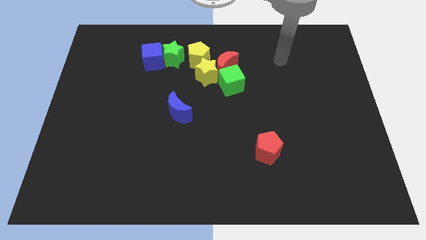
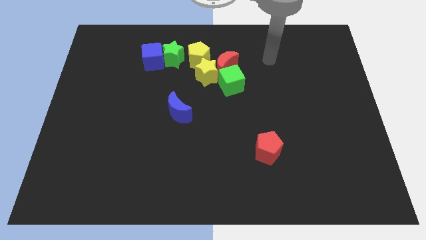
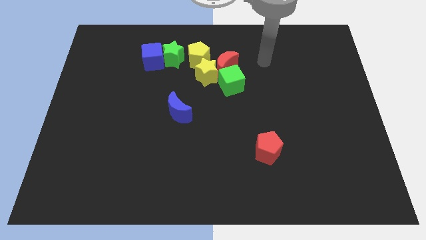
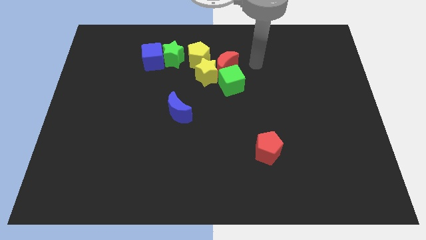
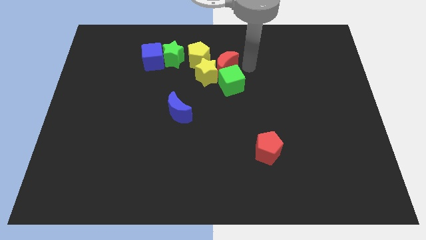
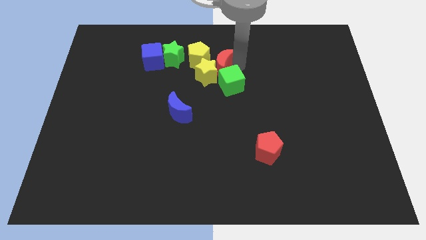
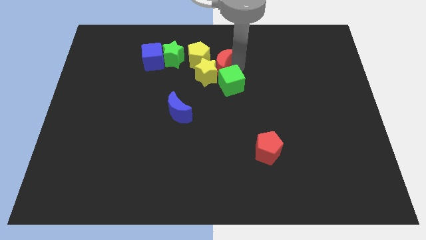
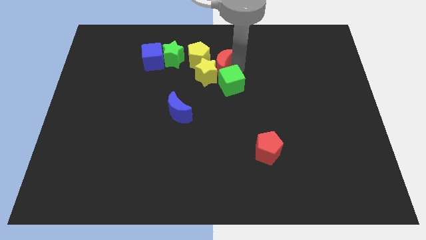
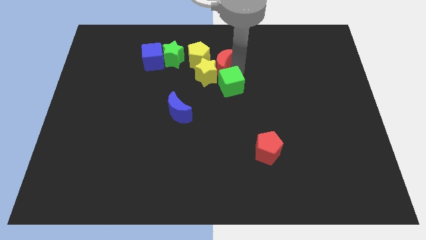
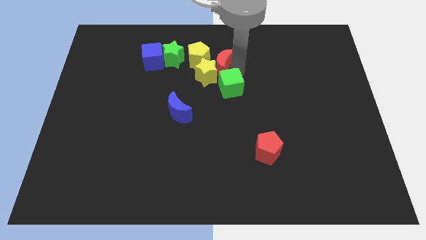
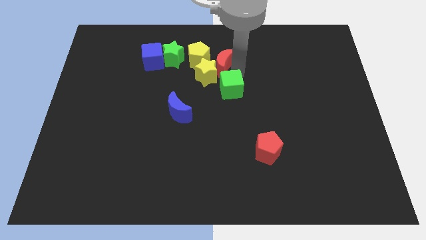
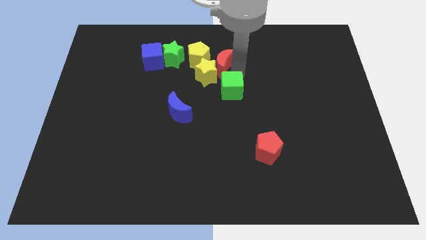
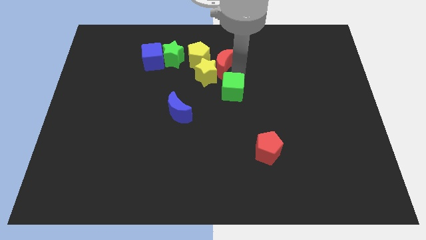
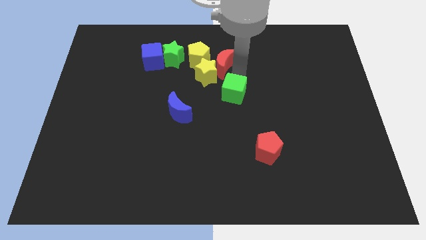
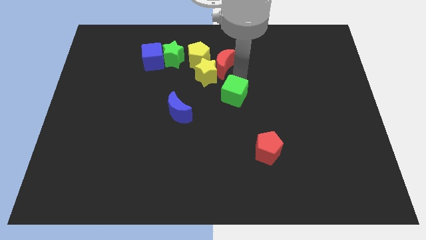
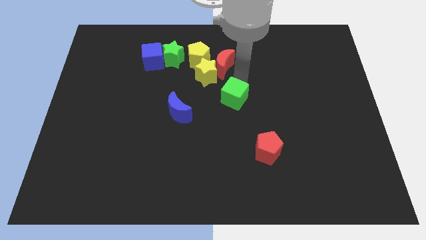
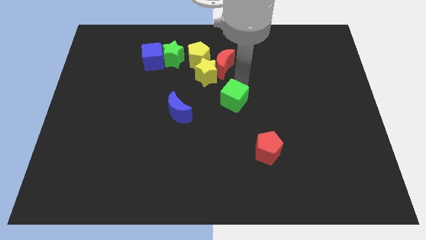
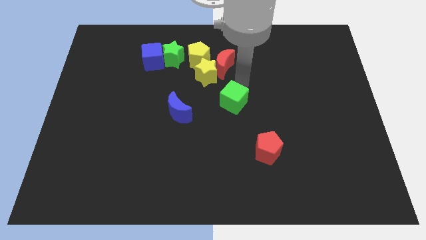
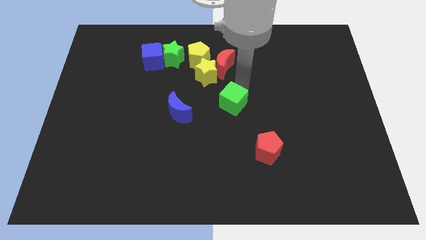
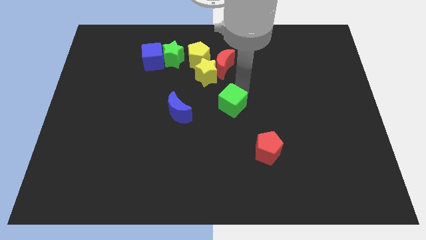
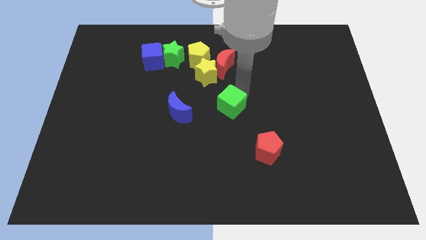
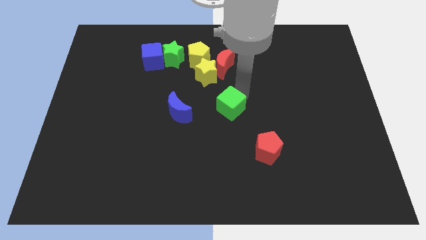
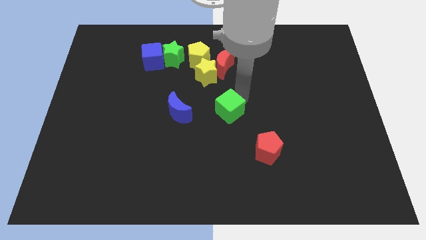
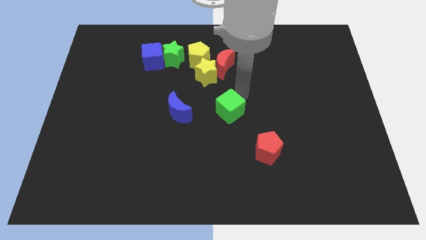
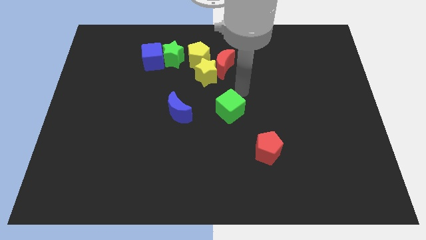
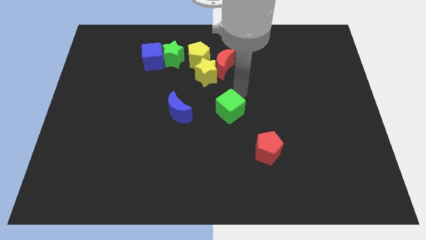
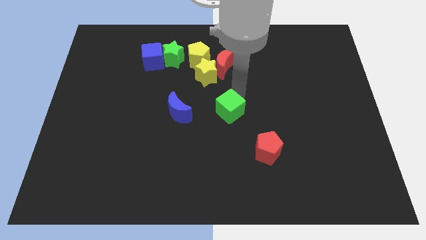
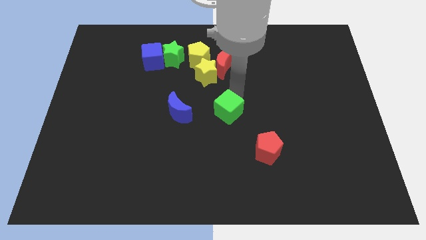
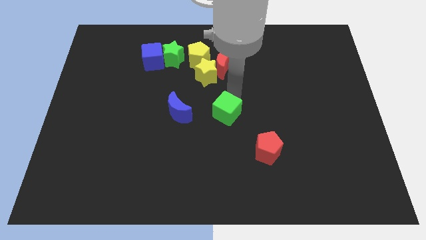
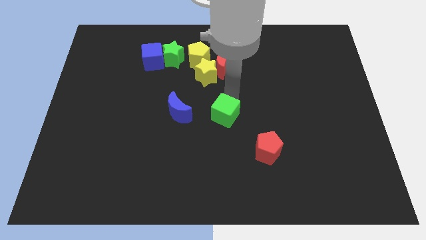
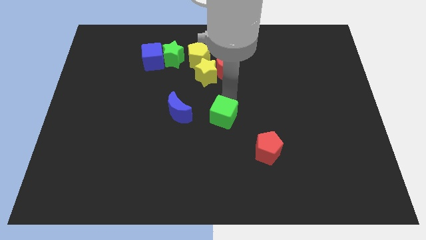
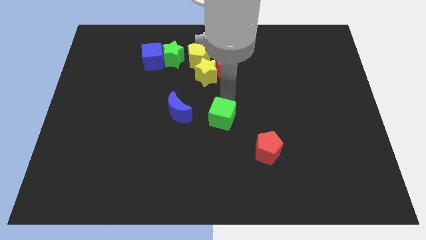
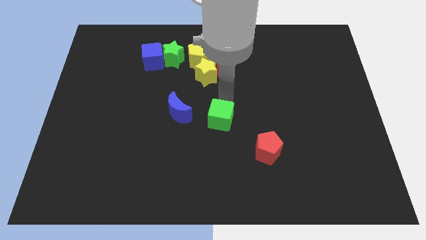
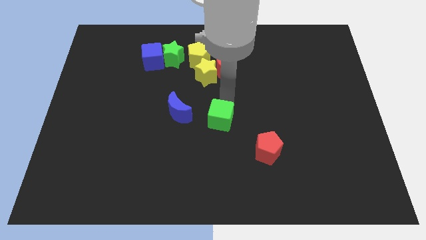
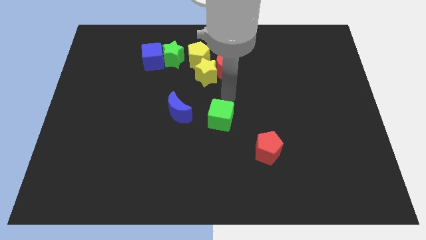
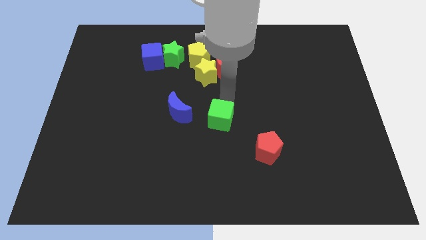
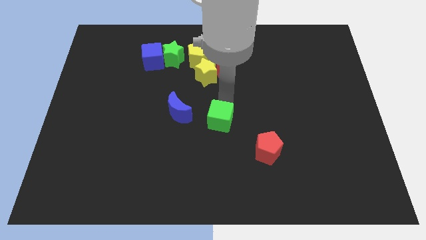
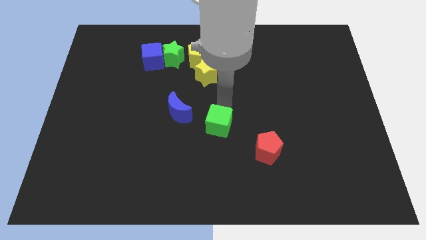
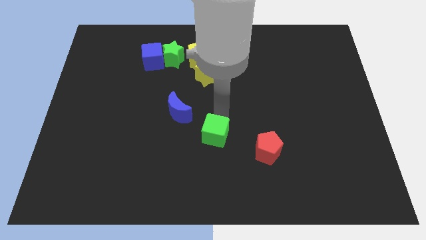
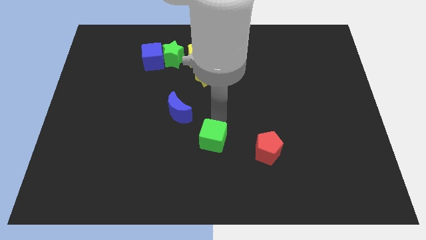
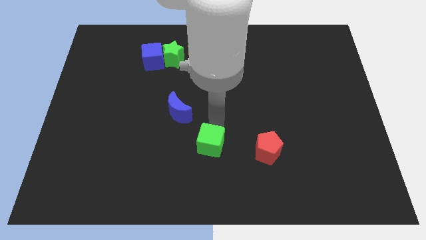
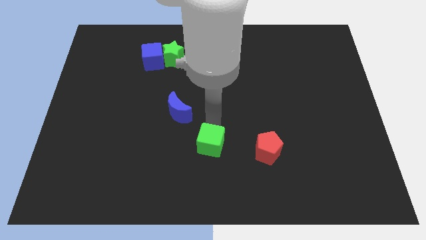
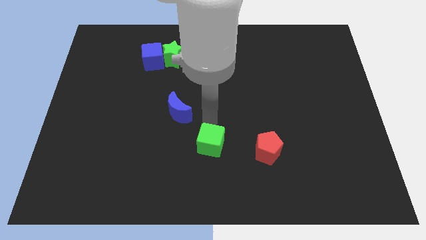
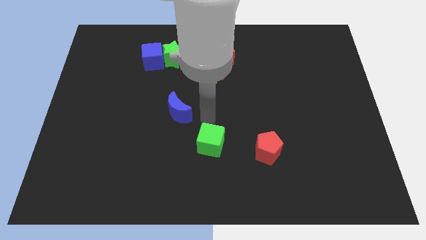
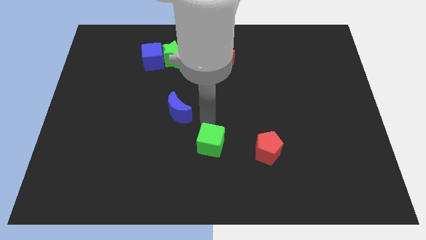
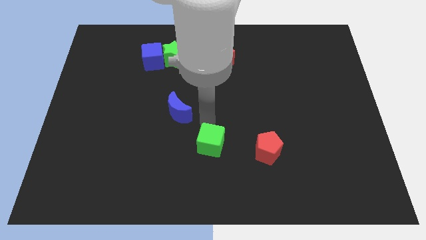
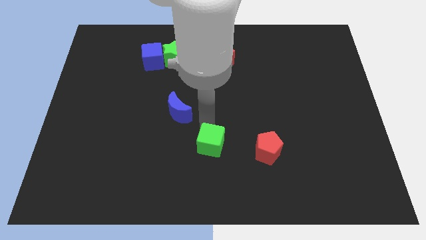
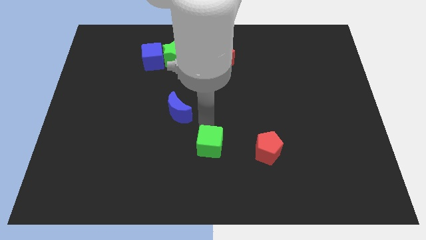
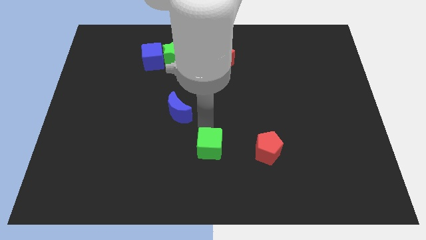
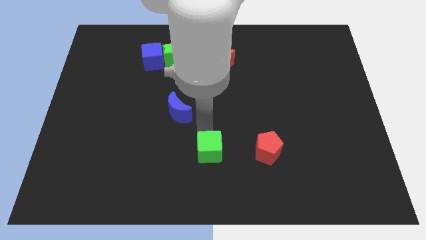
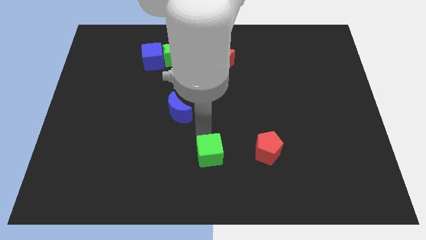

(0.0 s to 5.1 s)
slide the green cube to the bottom side
